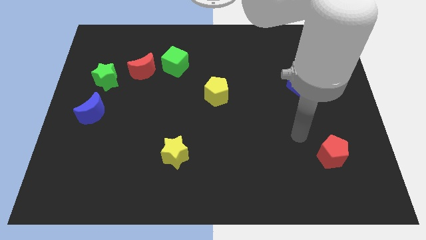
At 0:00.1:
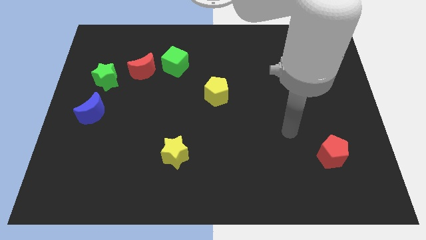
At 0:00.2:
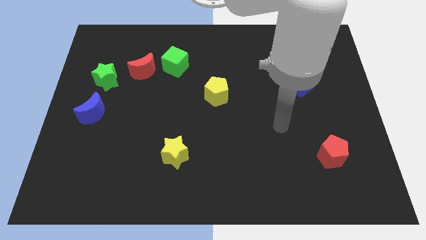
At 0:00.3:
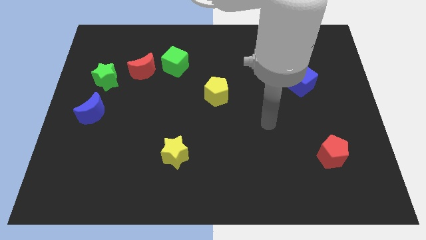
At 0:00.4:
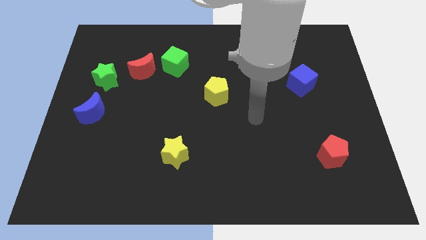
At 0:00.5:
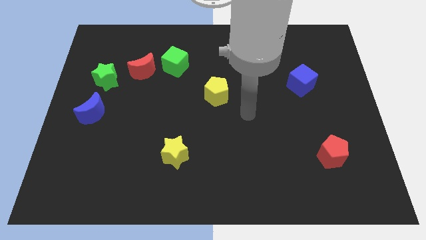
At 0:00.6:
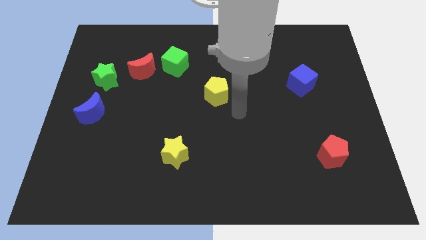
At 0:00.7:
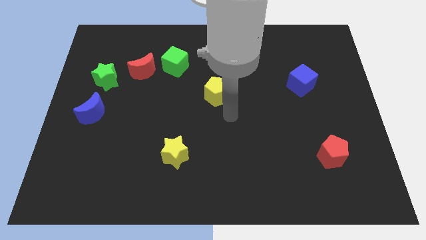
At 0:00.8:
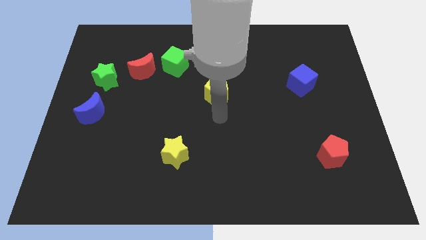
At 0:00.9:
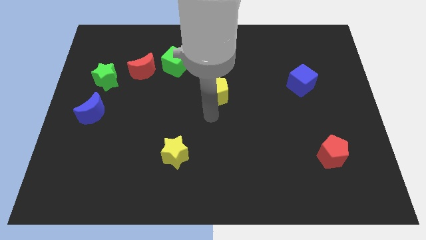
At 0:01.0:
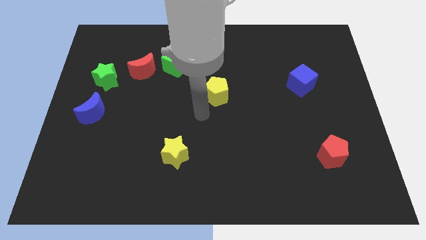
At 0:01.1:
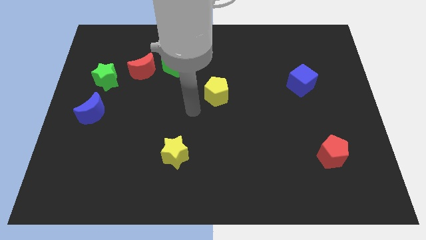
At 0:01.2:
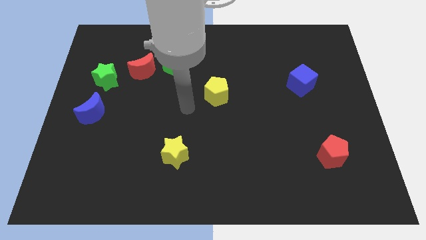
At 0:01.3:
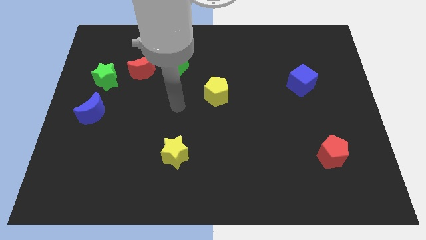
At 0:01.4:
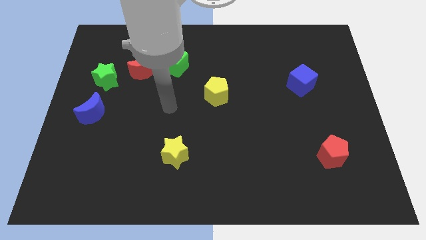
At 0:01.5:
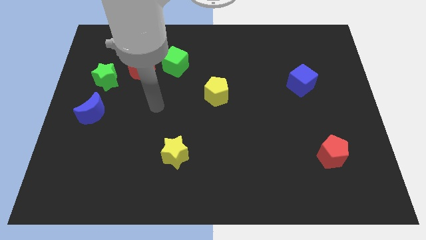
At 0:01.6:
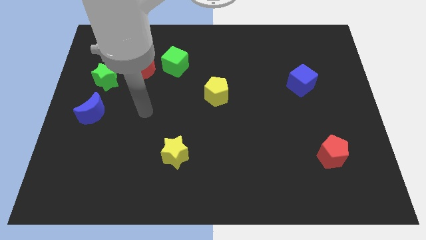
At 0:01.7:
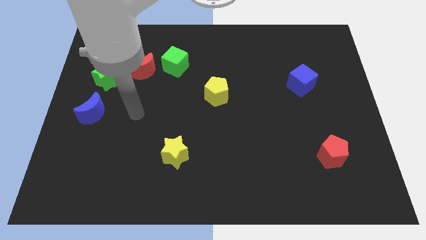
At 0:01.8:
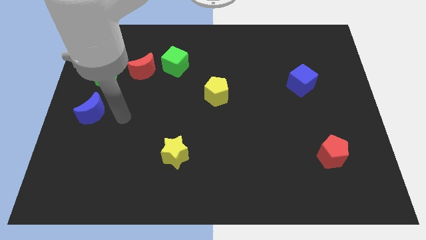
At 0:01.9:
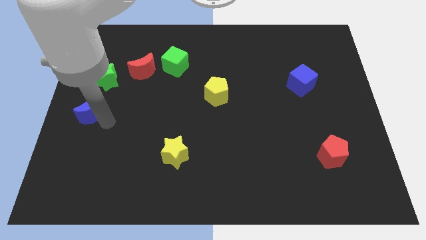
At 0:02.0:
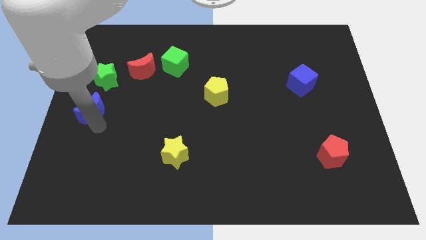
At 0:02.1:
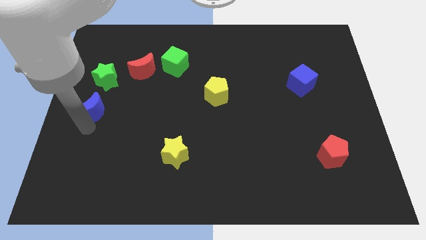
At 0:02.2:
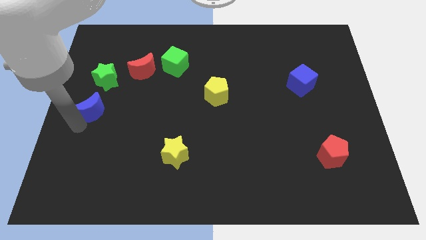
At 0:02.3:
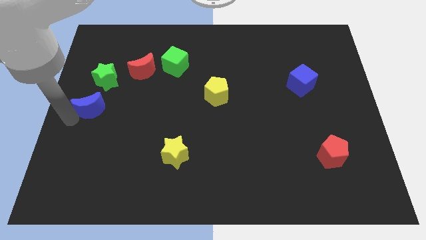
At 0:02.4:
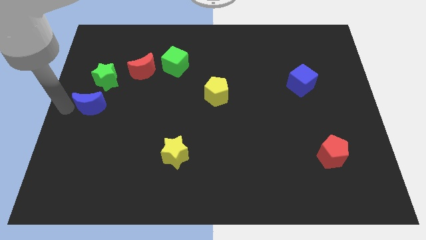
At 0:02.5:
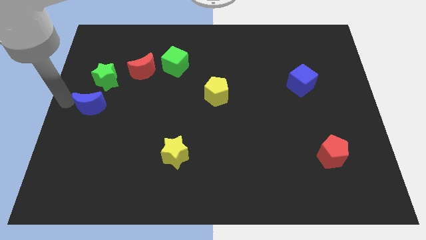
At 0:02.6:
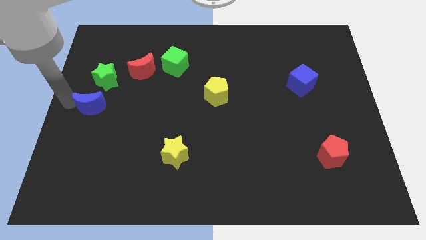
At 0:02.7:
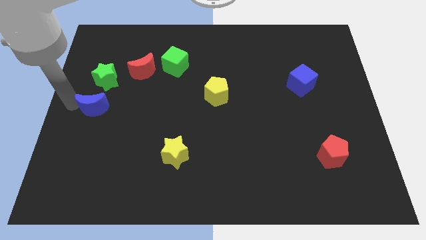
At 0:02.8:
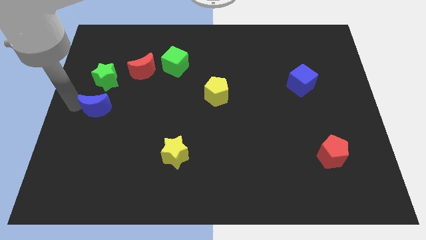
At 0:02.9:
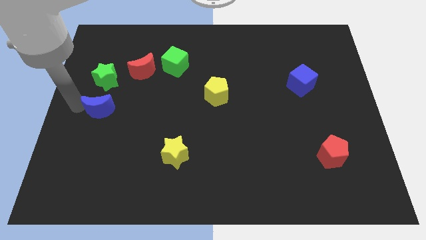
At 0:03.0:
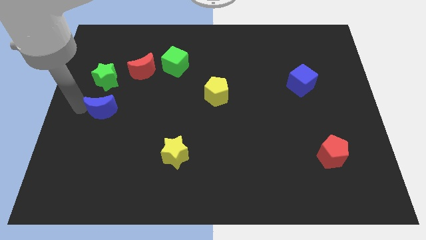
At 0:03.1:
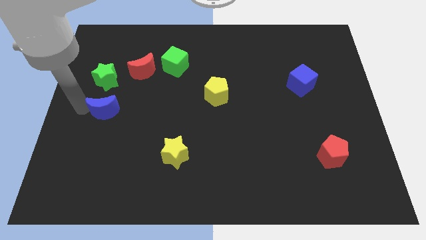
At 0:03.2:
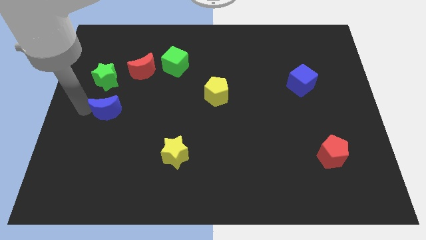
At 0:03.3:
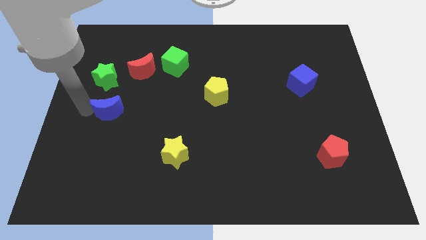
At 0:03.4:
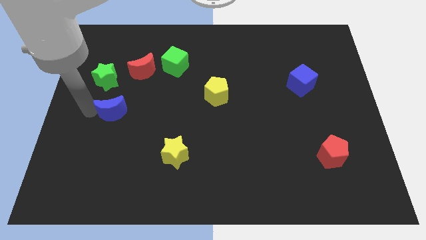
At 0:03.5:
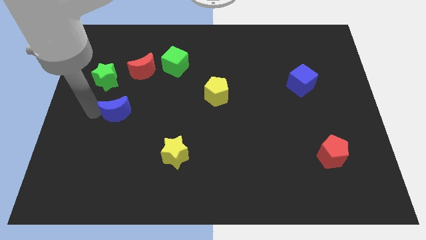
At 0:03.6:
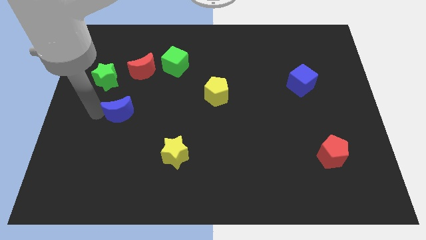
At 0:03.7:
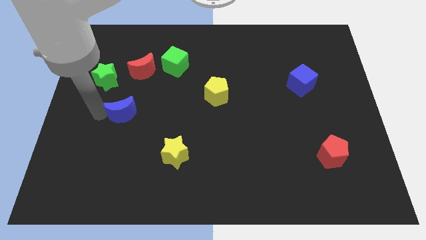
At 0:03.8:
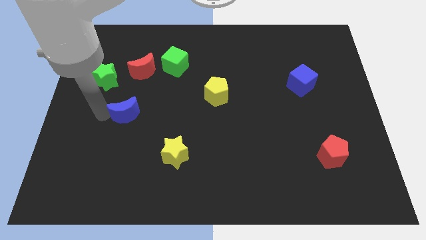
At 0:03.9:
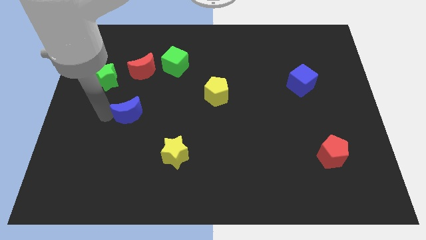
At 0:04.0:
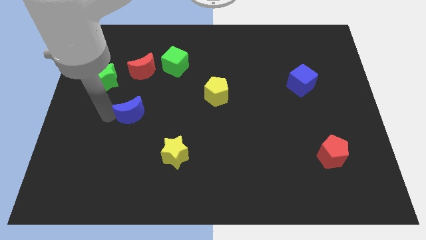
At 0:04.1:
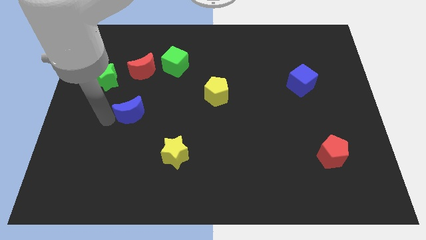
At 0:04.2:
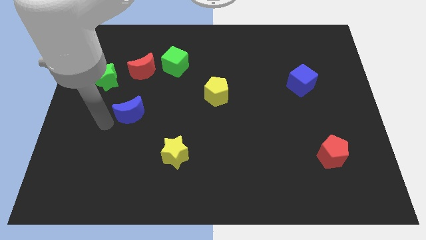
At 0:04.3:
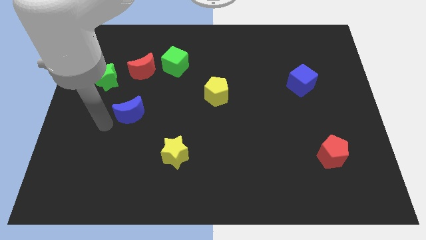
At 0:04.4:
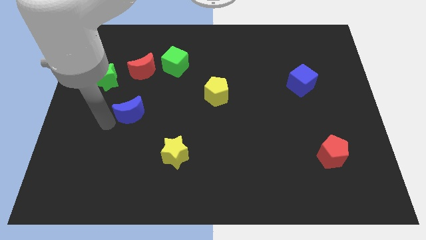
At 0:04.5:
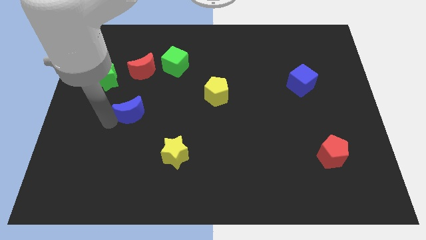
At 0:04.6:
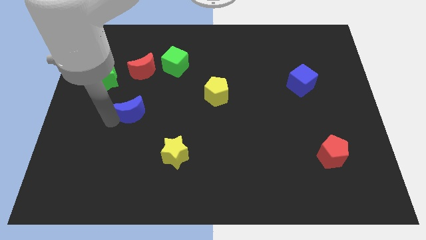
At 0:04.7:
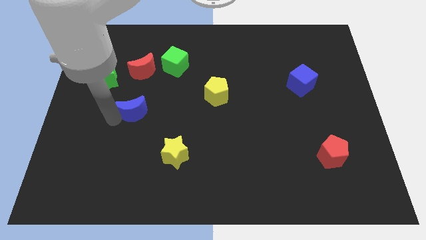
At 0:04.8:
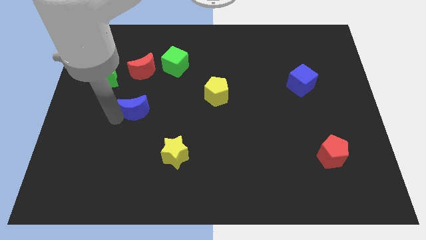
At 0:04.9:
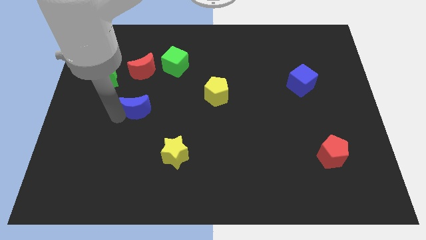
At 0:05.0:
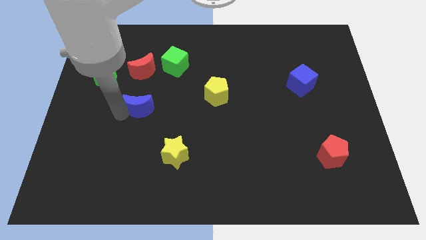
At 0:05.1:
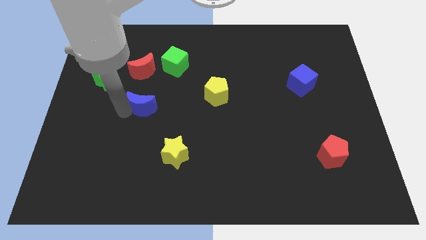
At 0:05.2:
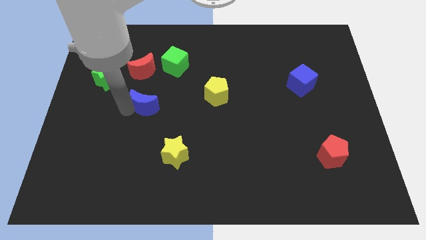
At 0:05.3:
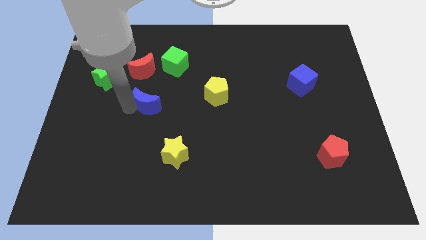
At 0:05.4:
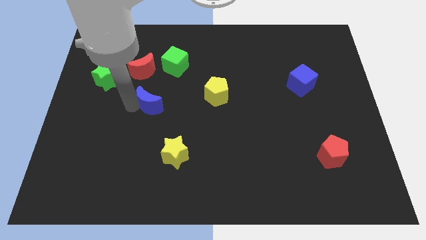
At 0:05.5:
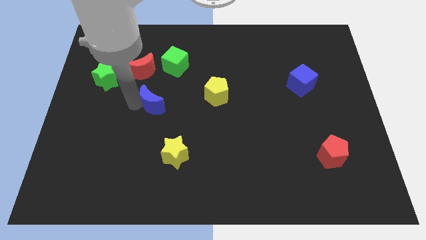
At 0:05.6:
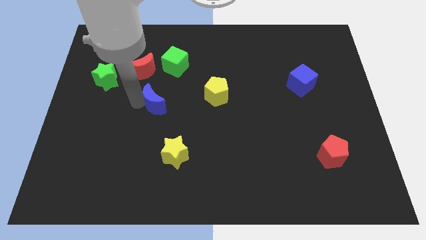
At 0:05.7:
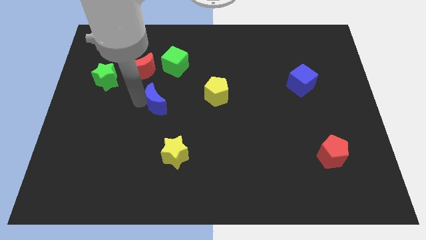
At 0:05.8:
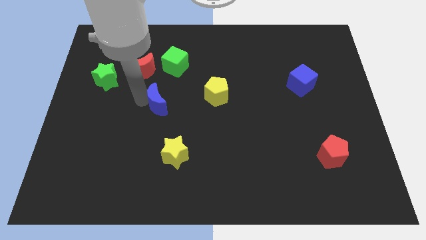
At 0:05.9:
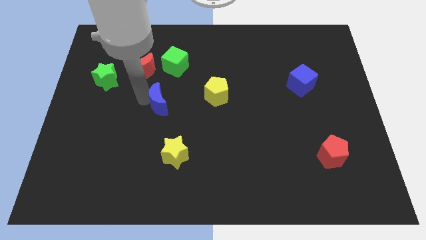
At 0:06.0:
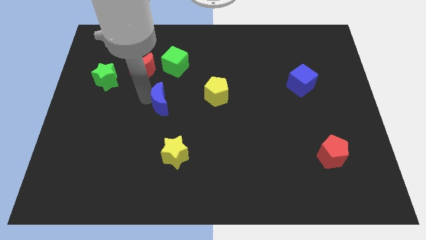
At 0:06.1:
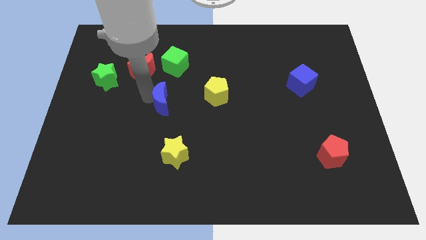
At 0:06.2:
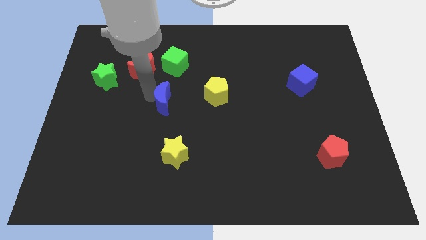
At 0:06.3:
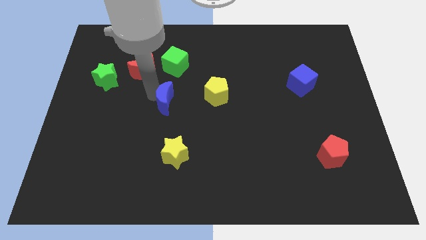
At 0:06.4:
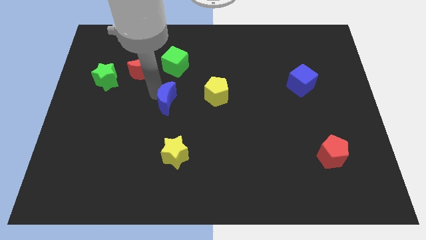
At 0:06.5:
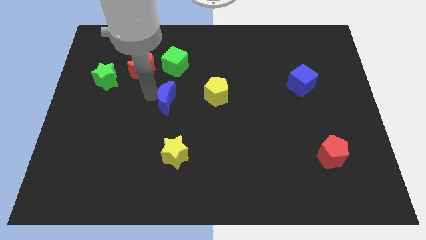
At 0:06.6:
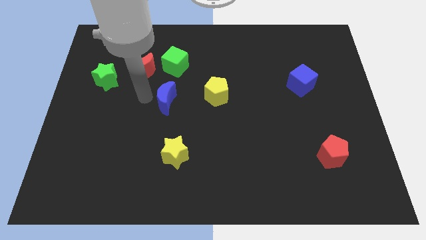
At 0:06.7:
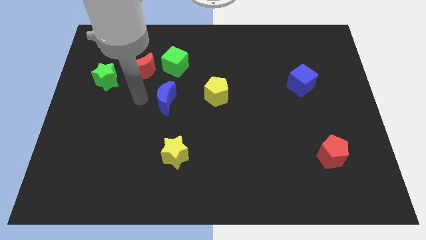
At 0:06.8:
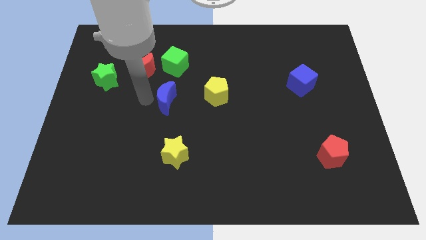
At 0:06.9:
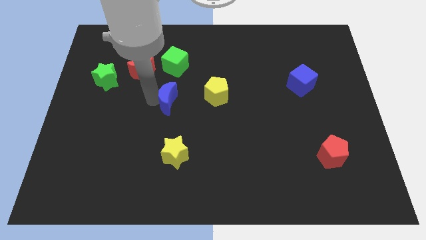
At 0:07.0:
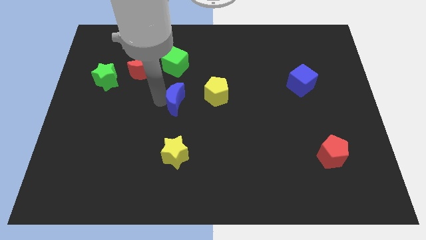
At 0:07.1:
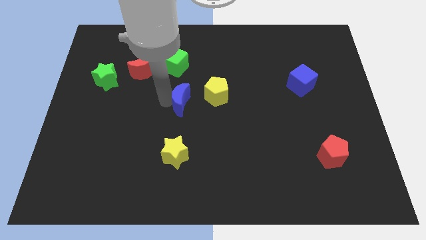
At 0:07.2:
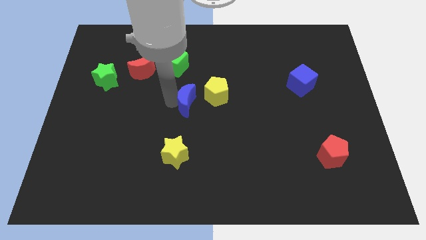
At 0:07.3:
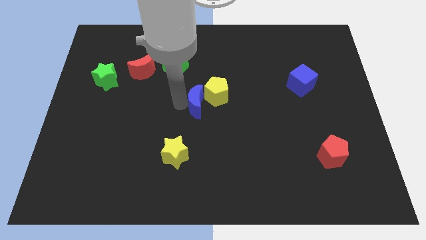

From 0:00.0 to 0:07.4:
push the blue moon towards the yellow pentagon
